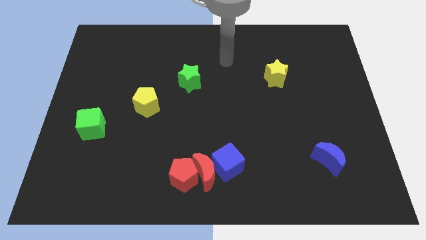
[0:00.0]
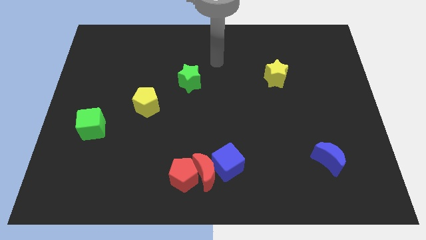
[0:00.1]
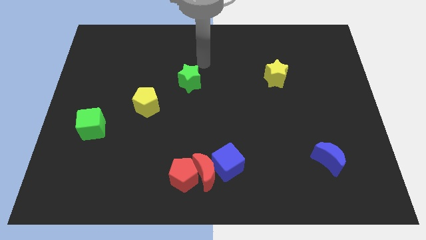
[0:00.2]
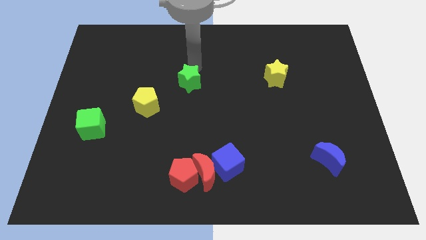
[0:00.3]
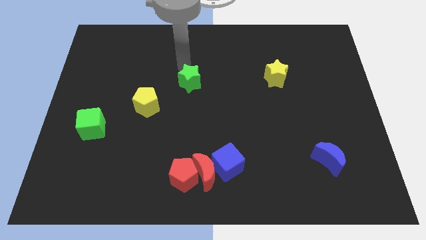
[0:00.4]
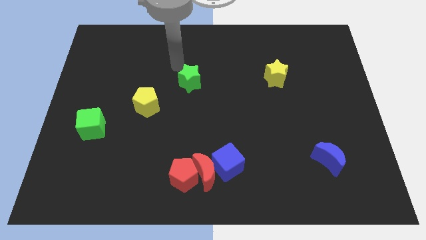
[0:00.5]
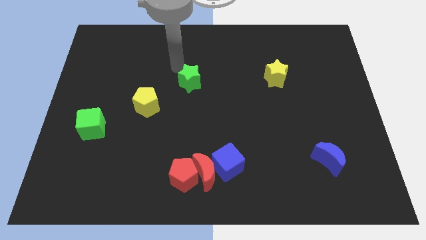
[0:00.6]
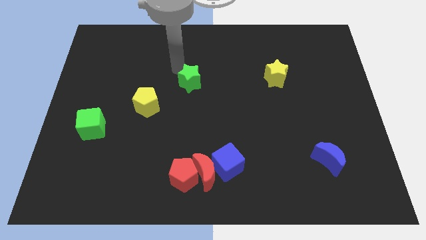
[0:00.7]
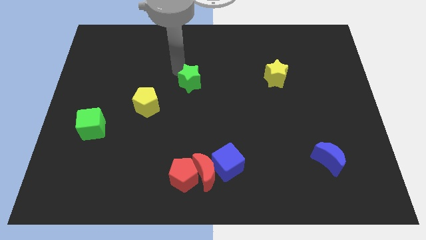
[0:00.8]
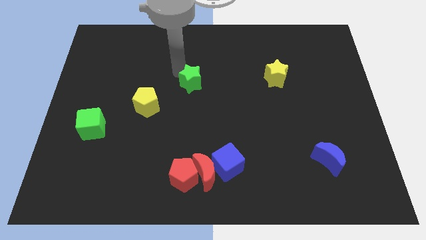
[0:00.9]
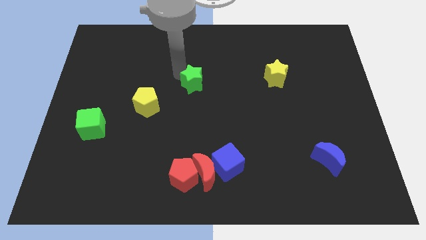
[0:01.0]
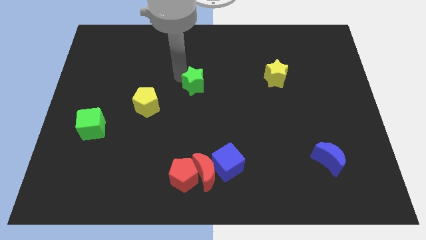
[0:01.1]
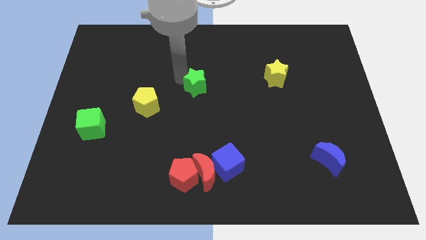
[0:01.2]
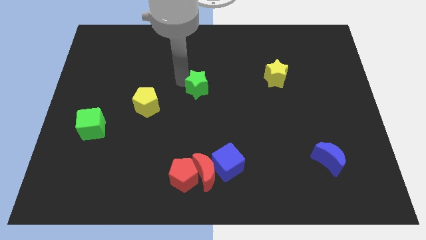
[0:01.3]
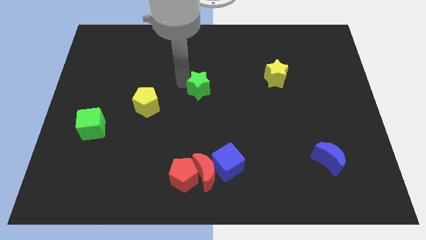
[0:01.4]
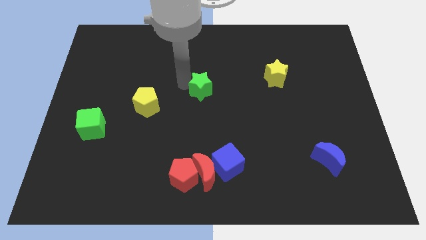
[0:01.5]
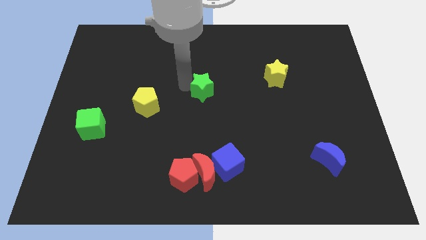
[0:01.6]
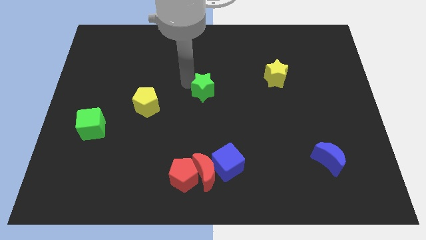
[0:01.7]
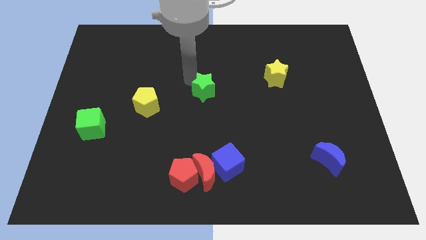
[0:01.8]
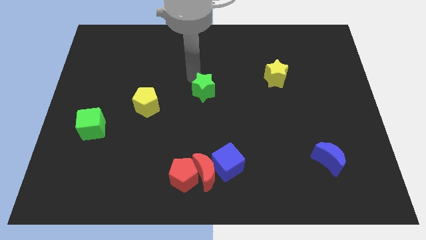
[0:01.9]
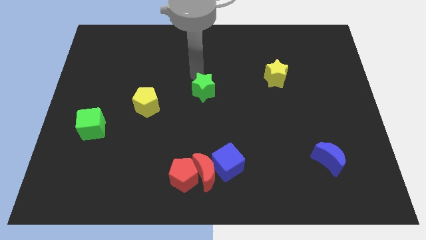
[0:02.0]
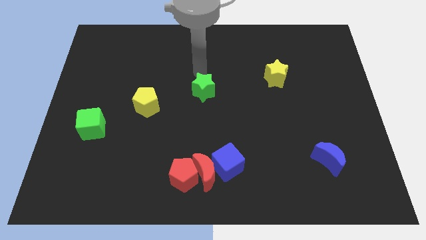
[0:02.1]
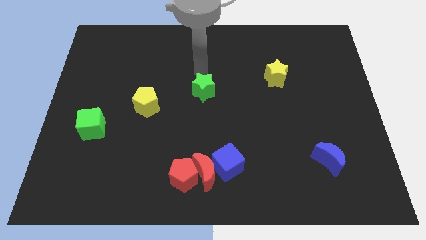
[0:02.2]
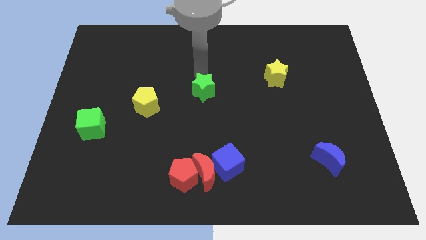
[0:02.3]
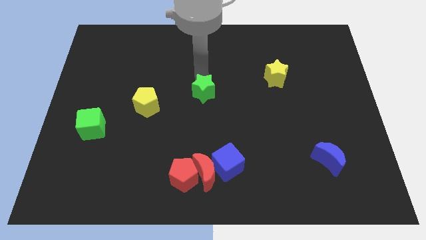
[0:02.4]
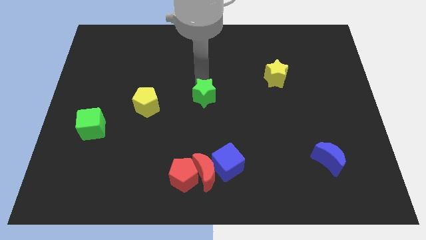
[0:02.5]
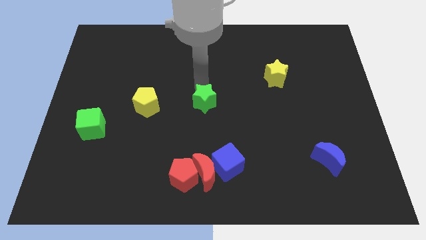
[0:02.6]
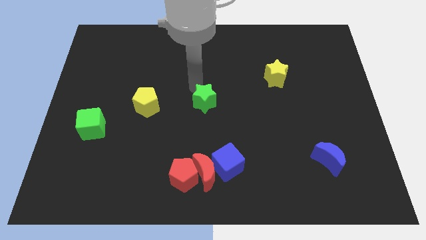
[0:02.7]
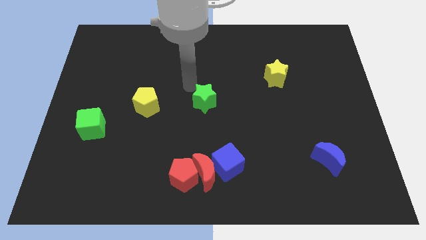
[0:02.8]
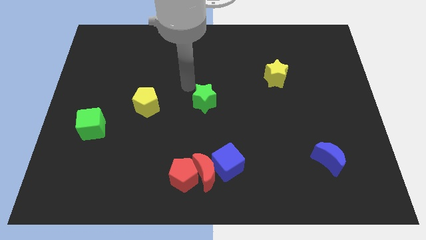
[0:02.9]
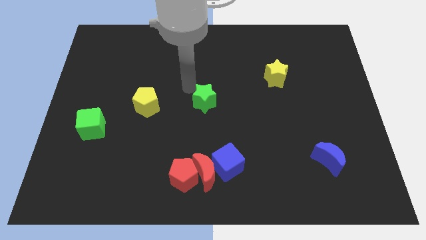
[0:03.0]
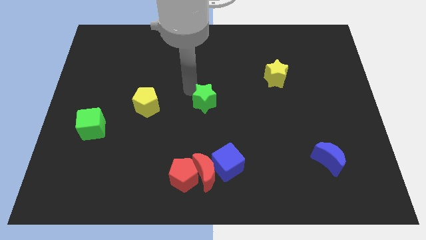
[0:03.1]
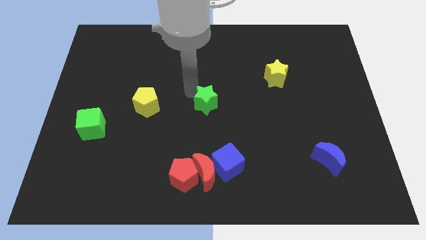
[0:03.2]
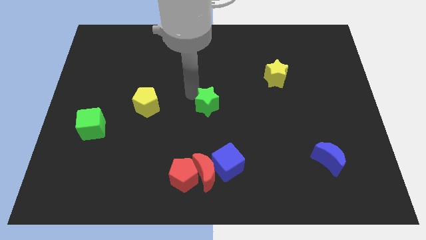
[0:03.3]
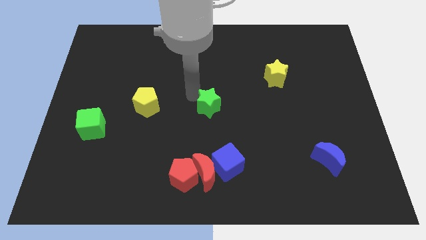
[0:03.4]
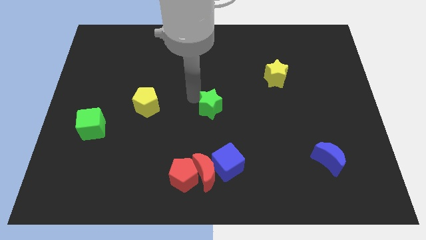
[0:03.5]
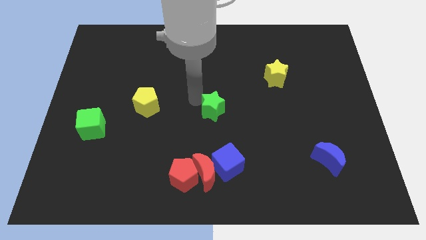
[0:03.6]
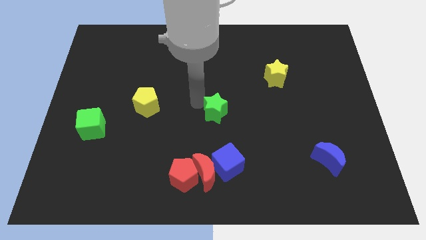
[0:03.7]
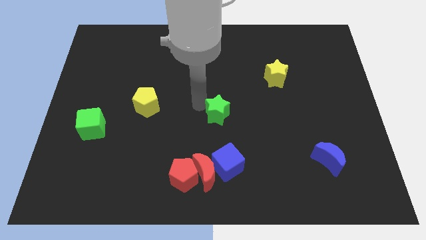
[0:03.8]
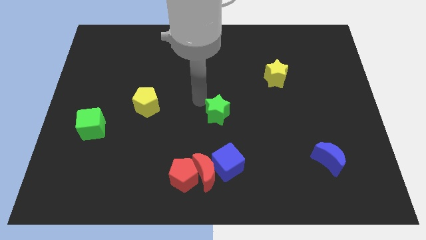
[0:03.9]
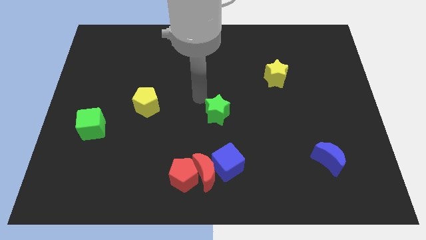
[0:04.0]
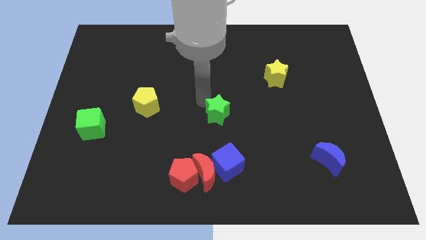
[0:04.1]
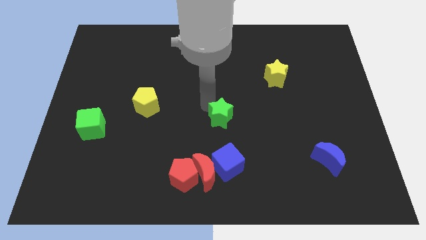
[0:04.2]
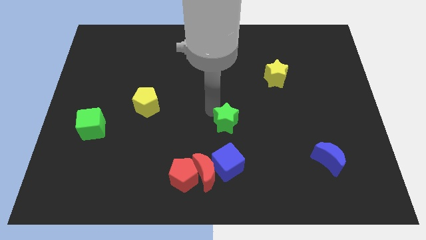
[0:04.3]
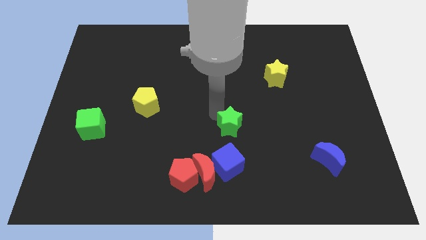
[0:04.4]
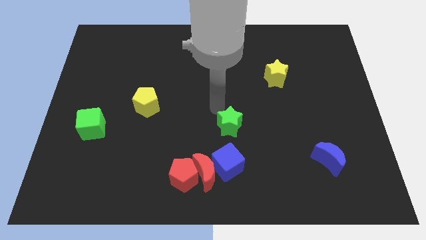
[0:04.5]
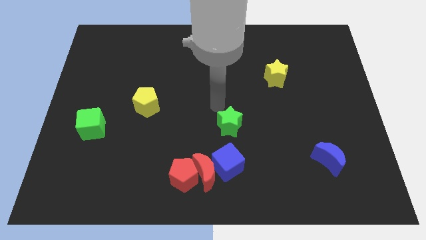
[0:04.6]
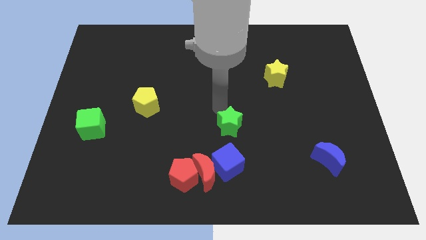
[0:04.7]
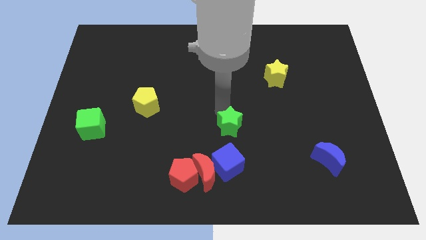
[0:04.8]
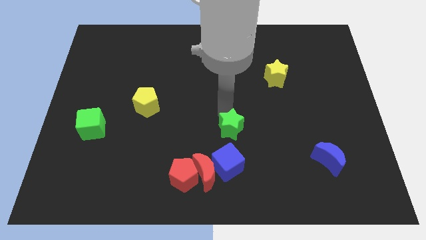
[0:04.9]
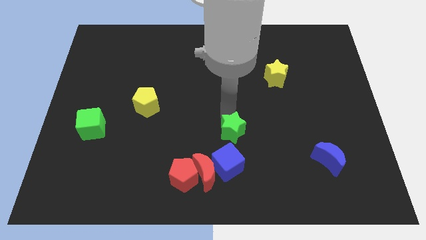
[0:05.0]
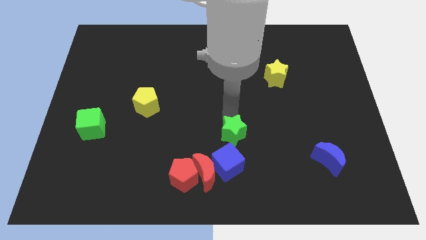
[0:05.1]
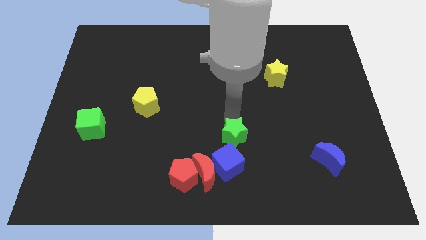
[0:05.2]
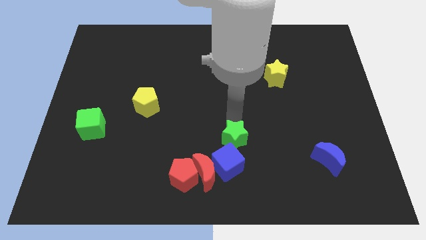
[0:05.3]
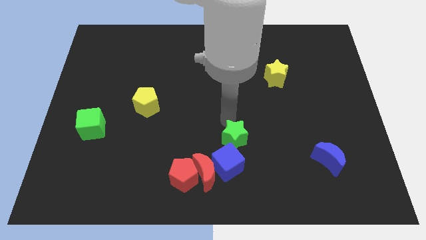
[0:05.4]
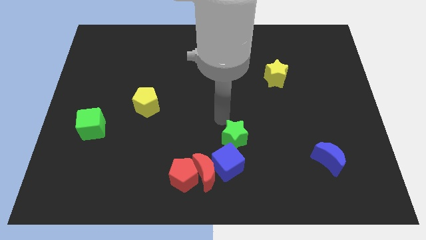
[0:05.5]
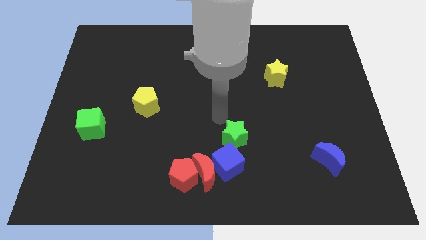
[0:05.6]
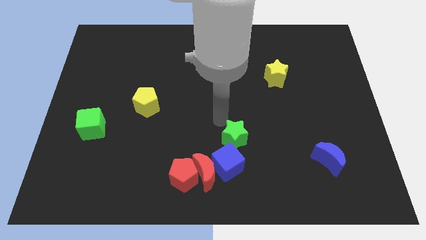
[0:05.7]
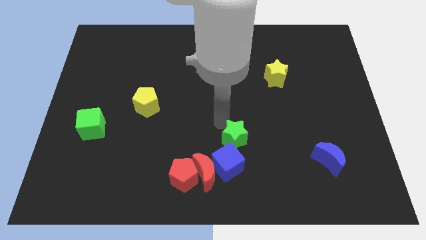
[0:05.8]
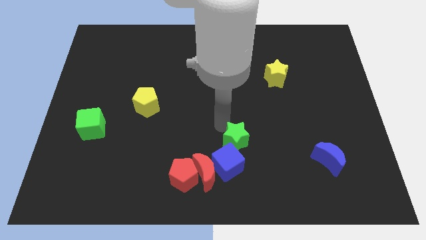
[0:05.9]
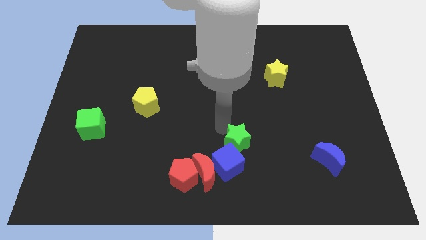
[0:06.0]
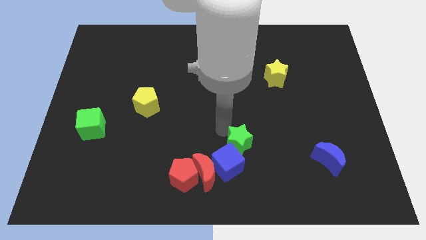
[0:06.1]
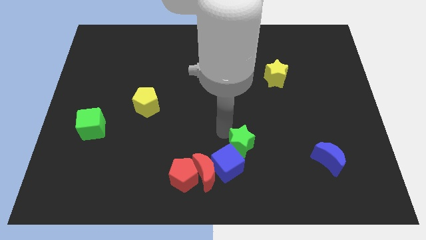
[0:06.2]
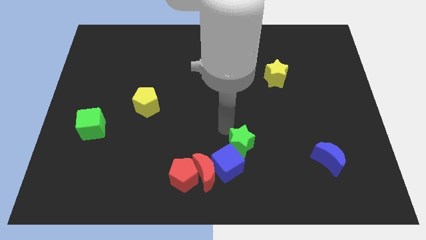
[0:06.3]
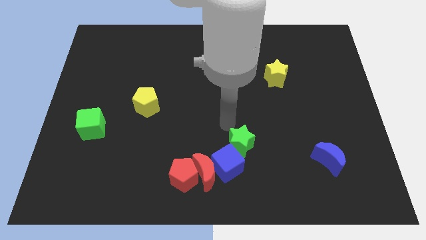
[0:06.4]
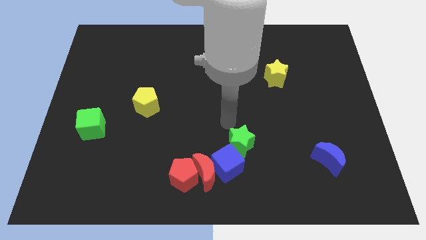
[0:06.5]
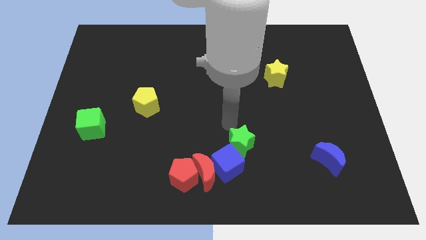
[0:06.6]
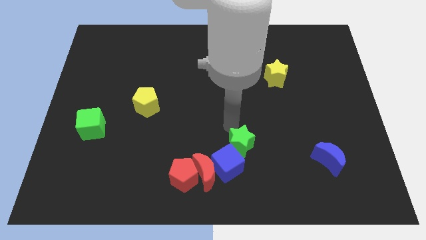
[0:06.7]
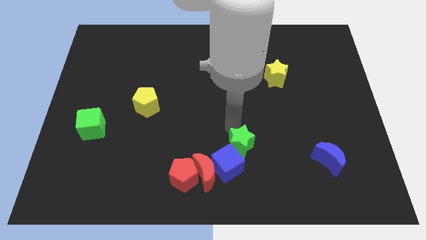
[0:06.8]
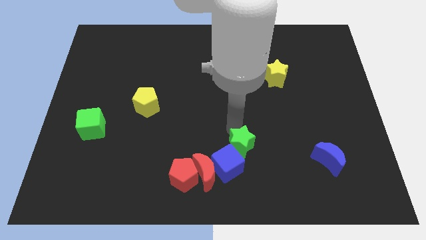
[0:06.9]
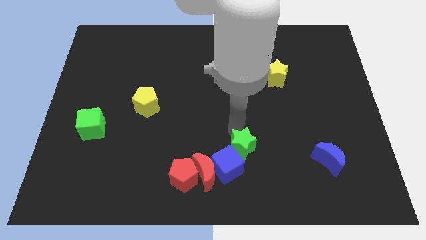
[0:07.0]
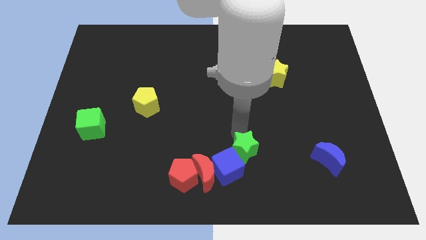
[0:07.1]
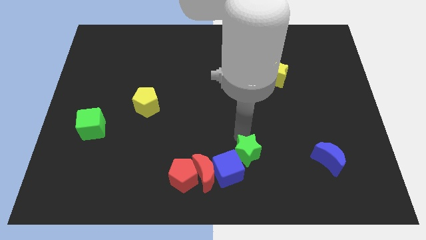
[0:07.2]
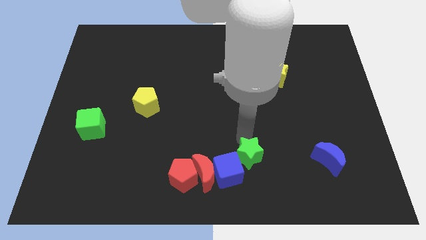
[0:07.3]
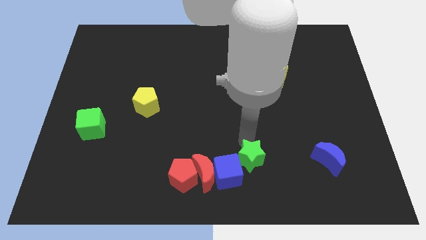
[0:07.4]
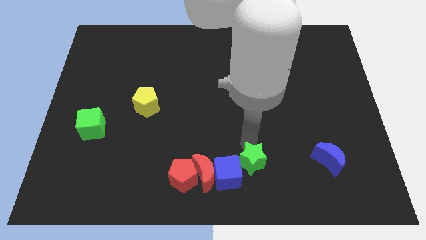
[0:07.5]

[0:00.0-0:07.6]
slide the green star right of the red pentagon
